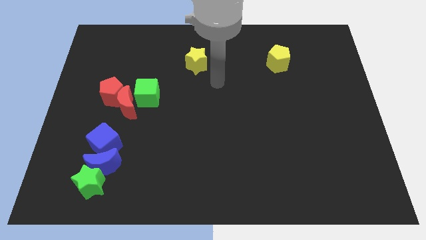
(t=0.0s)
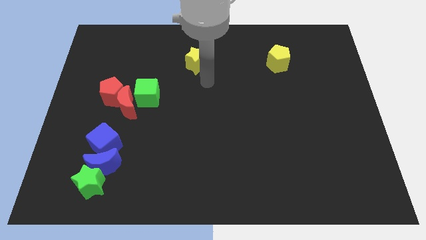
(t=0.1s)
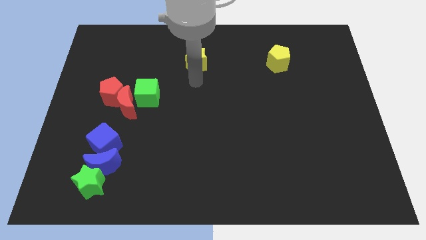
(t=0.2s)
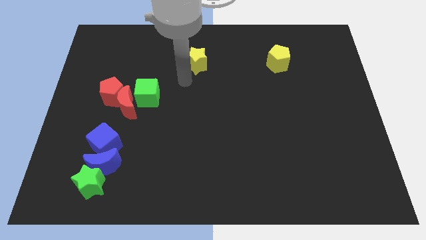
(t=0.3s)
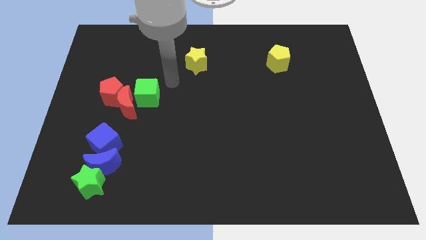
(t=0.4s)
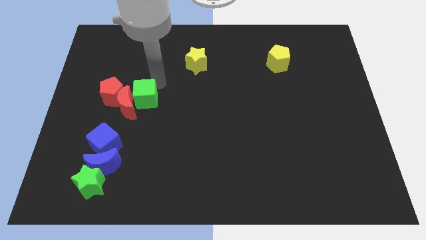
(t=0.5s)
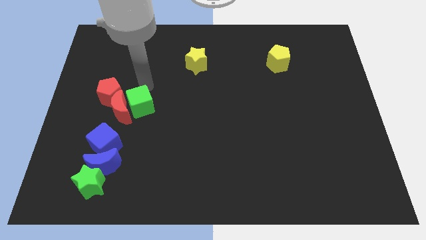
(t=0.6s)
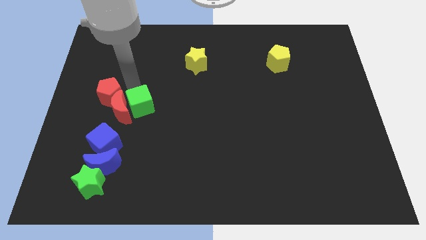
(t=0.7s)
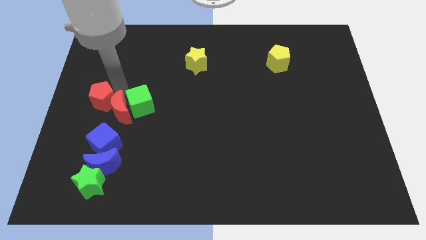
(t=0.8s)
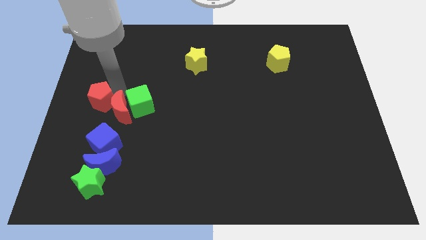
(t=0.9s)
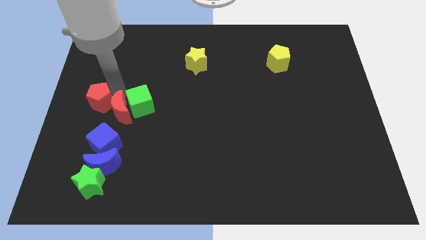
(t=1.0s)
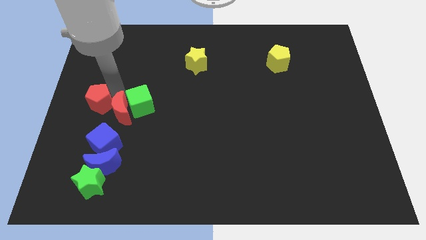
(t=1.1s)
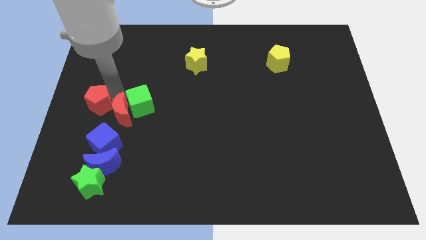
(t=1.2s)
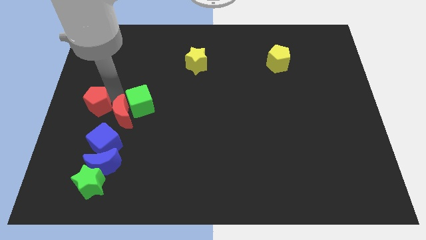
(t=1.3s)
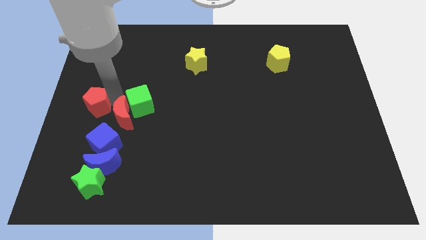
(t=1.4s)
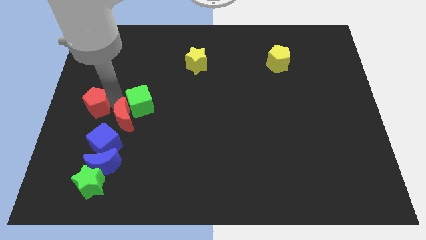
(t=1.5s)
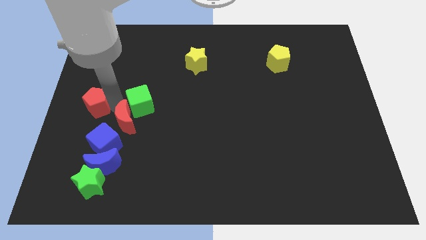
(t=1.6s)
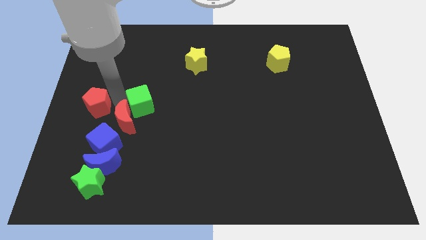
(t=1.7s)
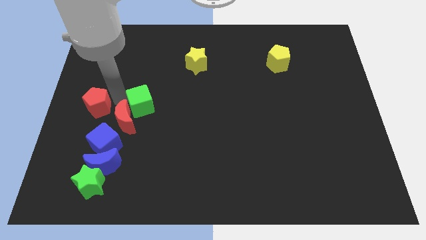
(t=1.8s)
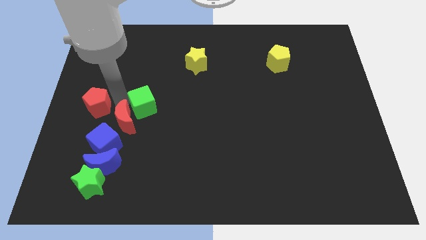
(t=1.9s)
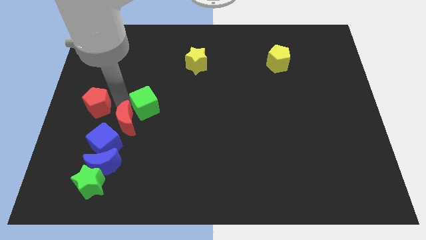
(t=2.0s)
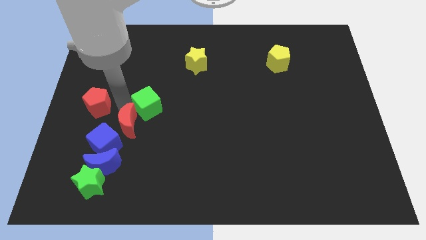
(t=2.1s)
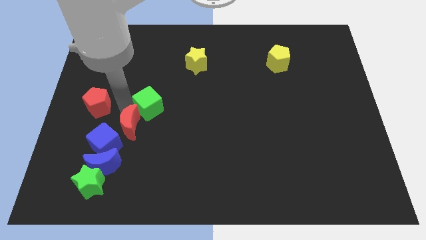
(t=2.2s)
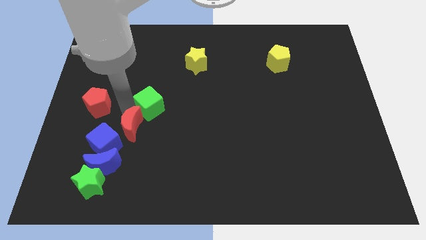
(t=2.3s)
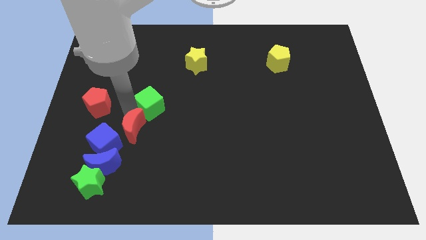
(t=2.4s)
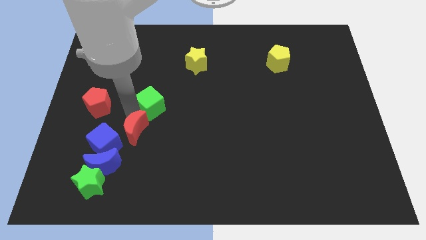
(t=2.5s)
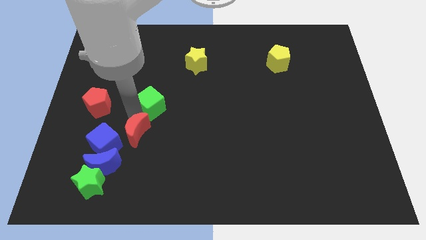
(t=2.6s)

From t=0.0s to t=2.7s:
push the red moon down a little bit

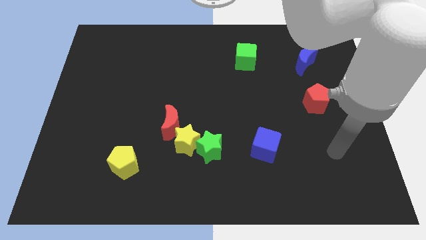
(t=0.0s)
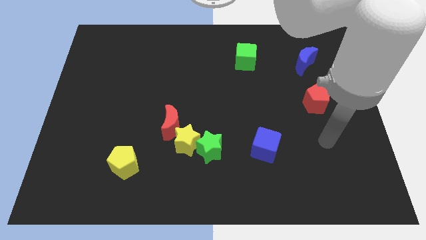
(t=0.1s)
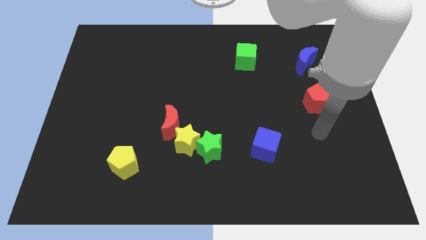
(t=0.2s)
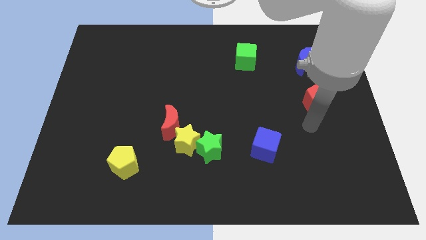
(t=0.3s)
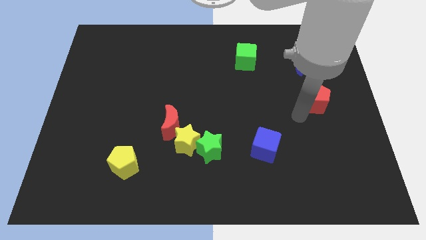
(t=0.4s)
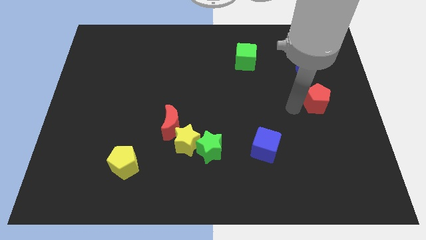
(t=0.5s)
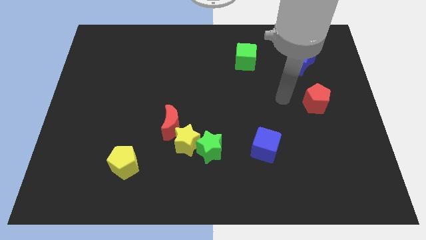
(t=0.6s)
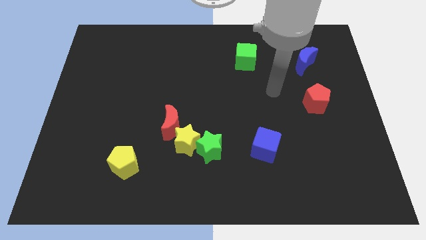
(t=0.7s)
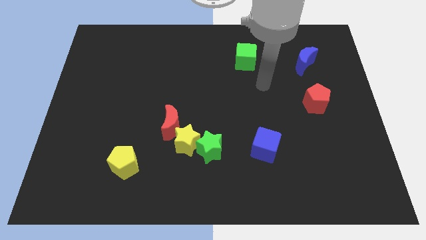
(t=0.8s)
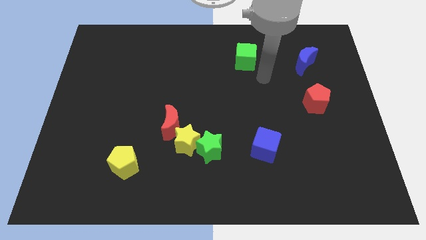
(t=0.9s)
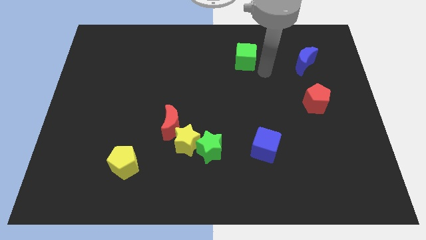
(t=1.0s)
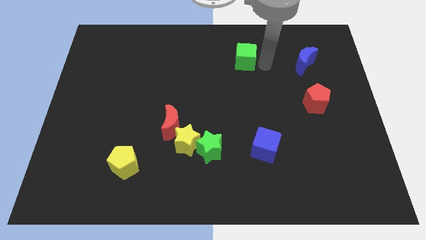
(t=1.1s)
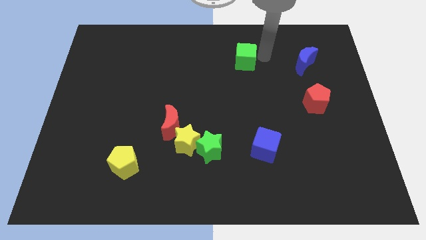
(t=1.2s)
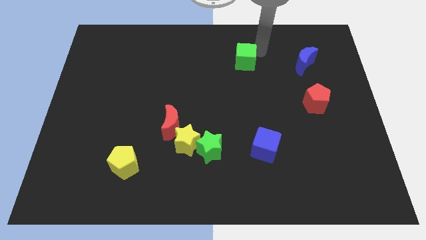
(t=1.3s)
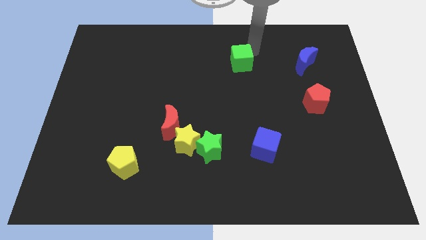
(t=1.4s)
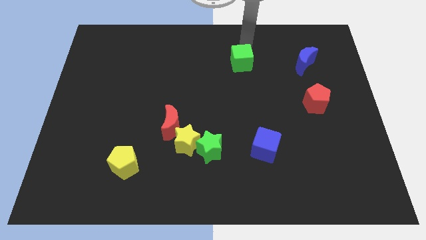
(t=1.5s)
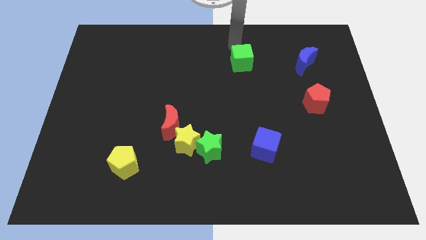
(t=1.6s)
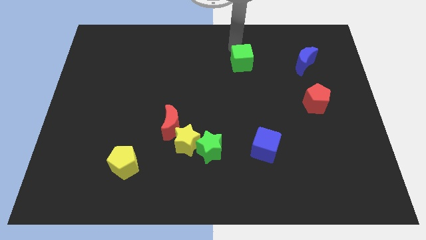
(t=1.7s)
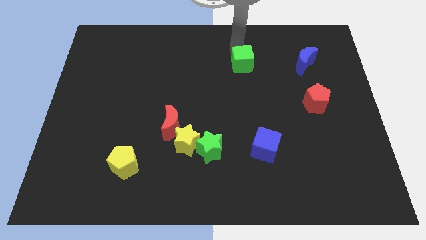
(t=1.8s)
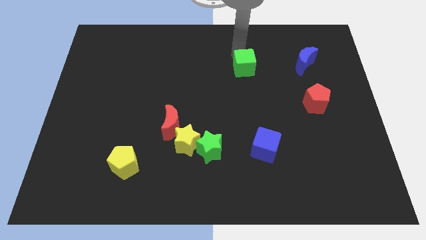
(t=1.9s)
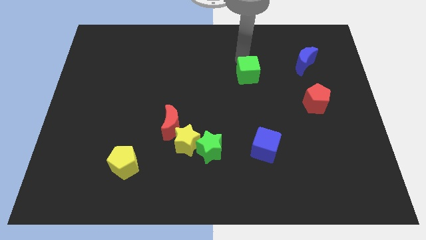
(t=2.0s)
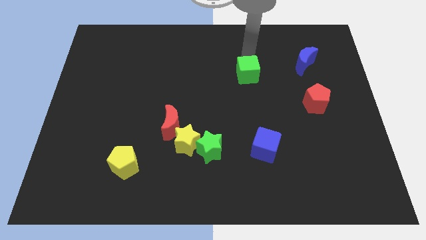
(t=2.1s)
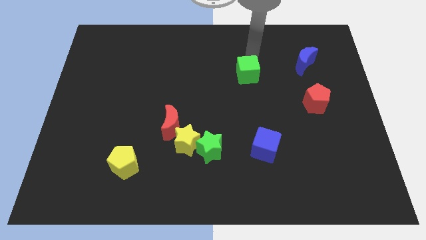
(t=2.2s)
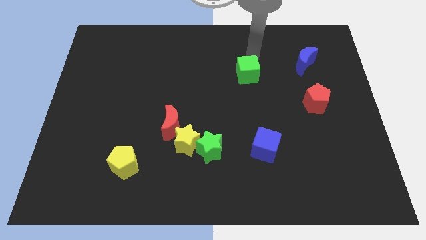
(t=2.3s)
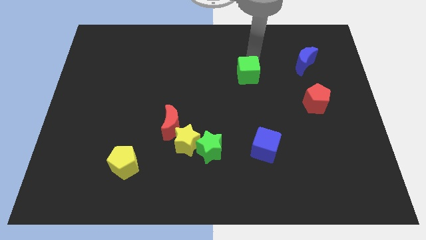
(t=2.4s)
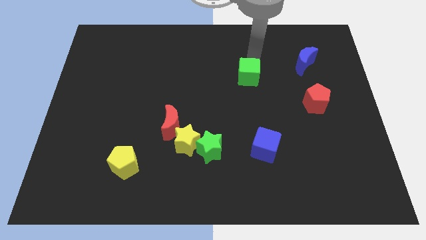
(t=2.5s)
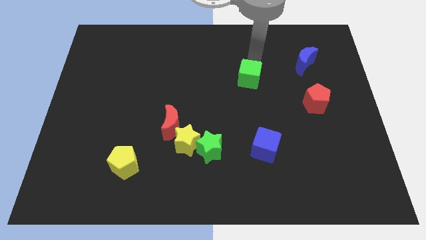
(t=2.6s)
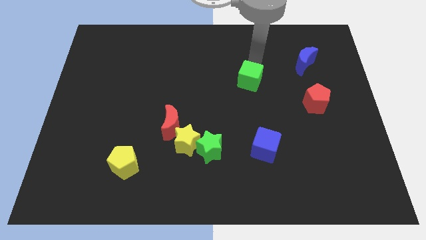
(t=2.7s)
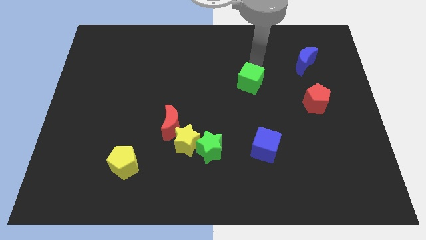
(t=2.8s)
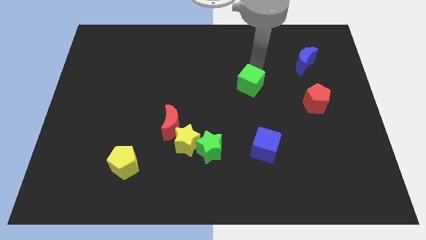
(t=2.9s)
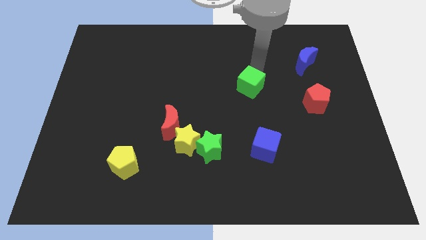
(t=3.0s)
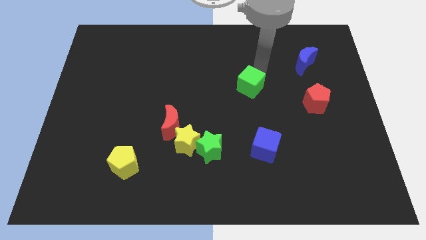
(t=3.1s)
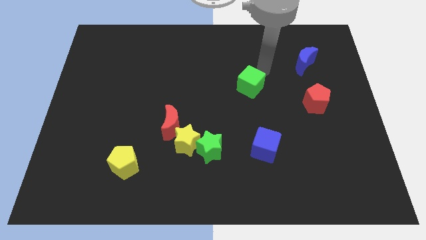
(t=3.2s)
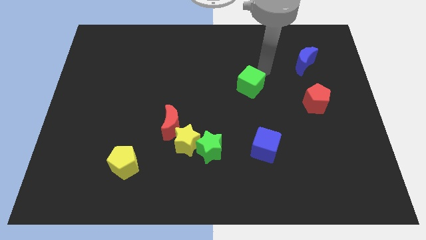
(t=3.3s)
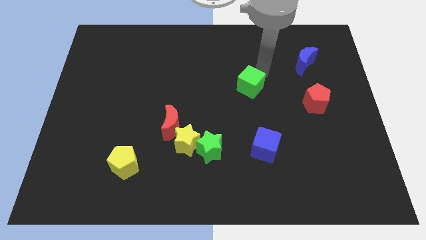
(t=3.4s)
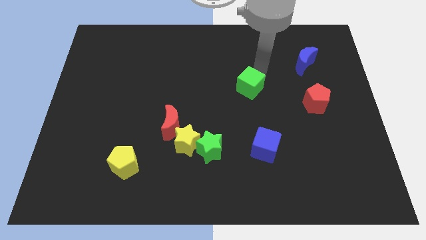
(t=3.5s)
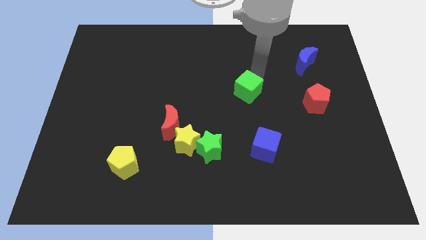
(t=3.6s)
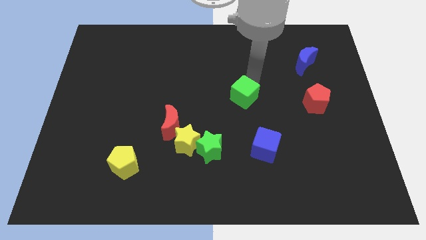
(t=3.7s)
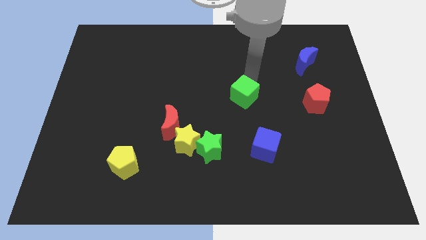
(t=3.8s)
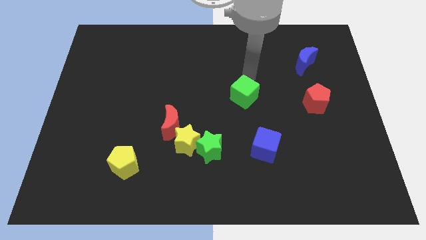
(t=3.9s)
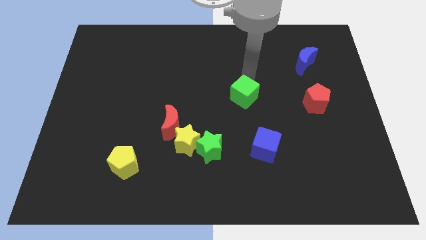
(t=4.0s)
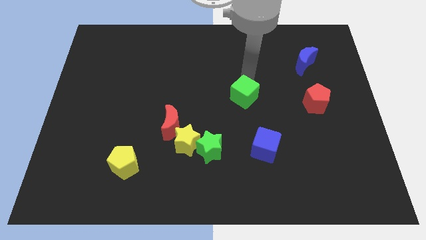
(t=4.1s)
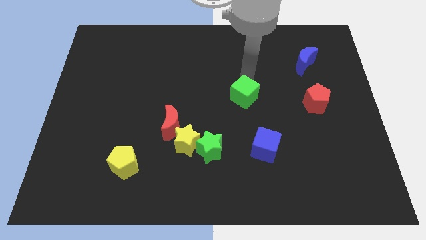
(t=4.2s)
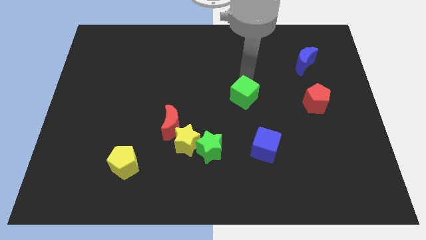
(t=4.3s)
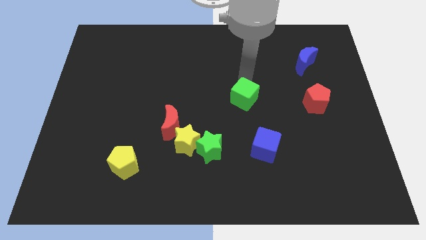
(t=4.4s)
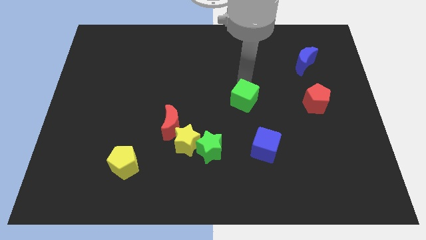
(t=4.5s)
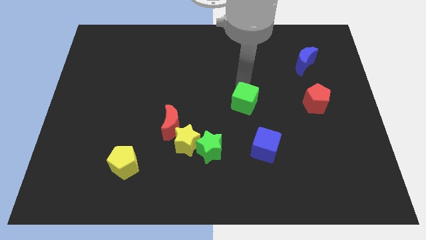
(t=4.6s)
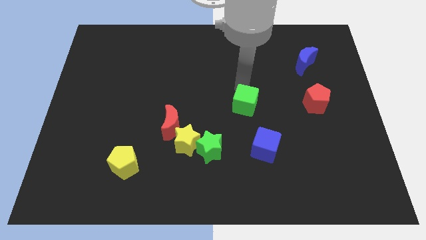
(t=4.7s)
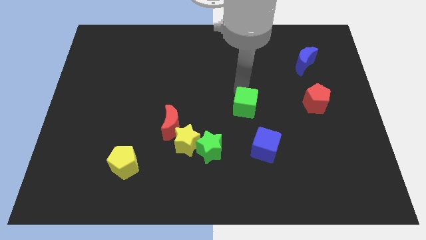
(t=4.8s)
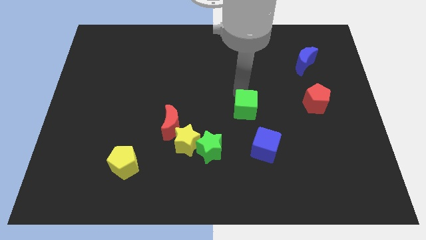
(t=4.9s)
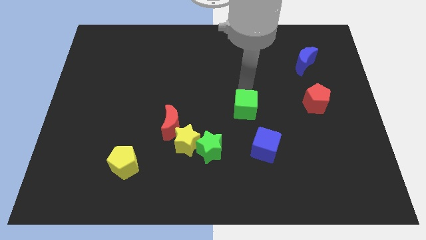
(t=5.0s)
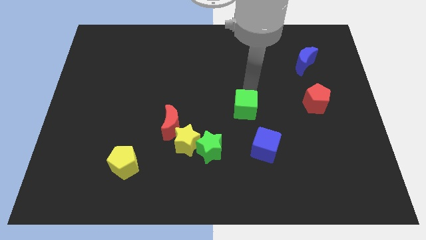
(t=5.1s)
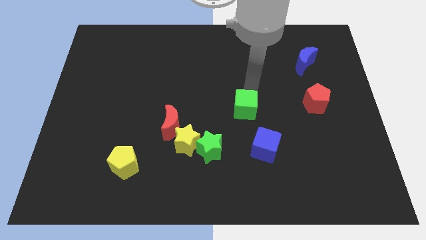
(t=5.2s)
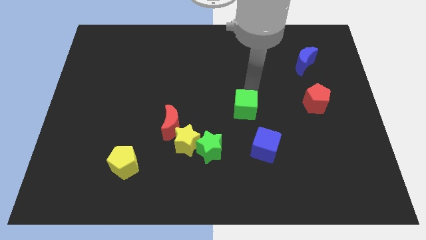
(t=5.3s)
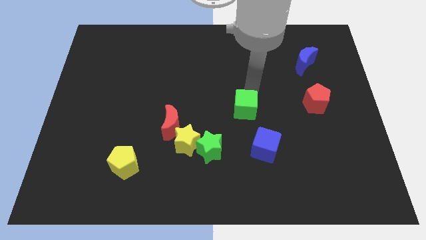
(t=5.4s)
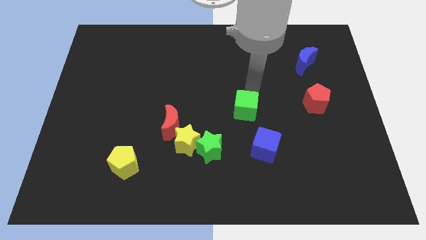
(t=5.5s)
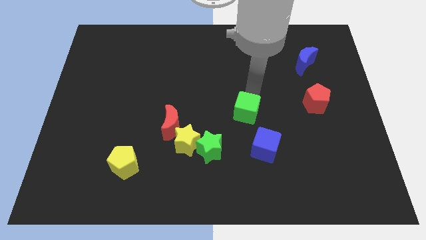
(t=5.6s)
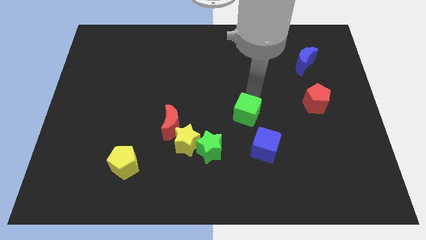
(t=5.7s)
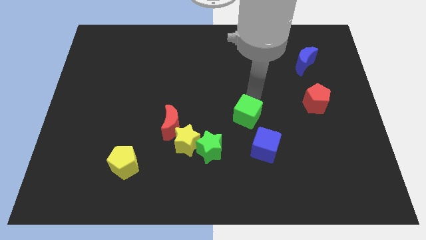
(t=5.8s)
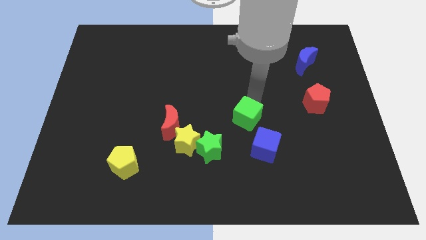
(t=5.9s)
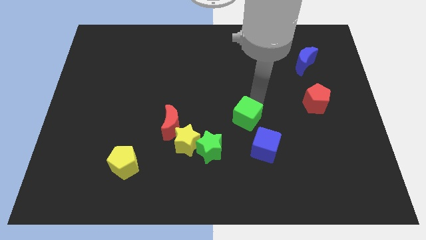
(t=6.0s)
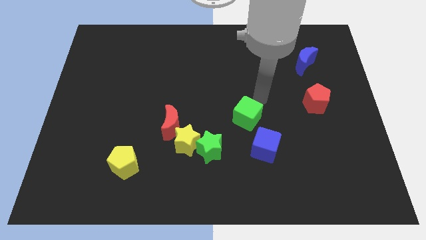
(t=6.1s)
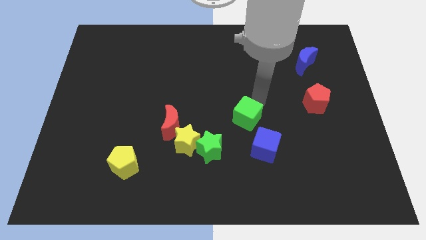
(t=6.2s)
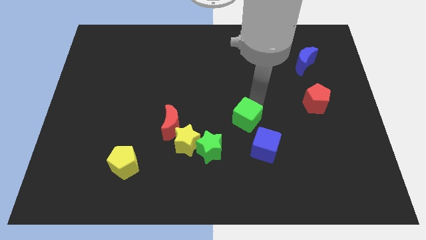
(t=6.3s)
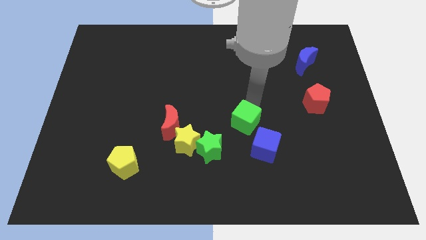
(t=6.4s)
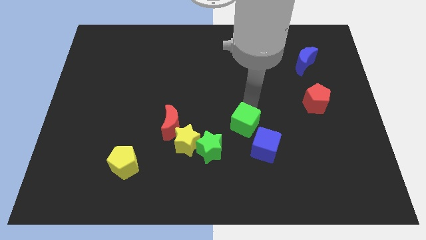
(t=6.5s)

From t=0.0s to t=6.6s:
slide the green cube downwards
